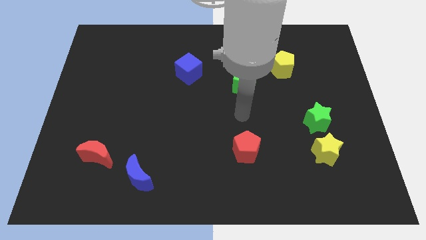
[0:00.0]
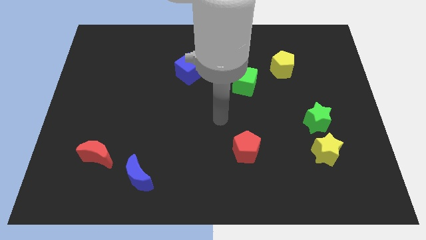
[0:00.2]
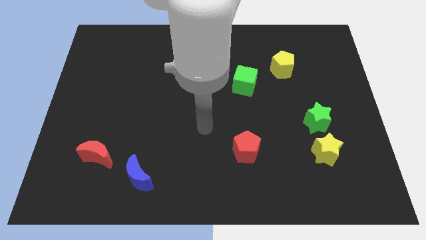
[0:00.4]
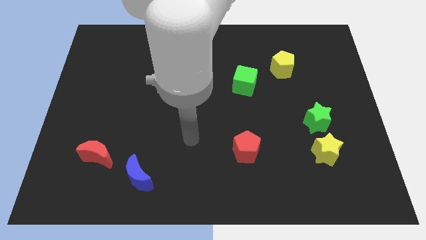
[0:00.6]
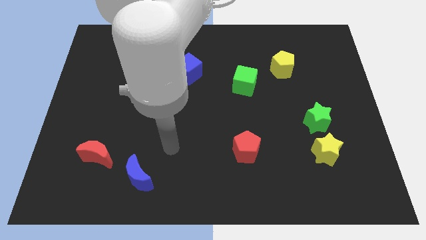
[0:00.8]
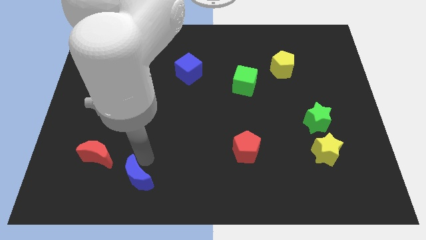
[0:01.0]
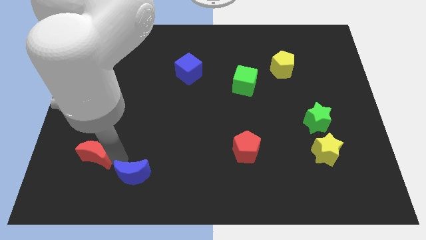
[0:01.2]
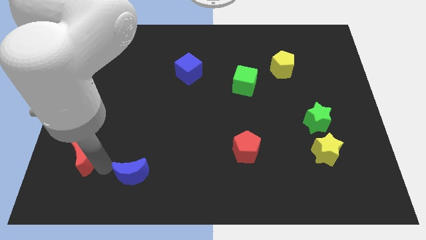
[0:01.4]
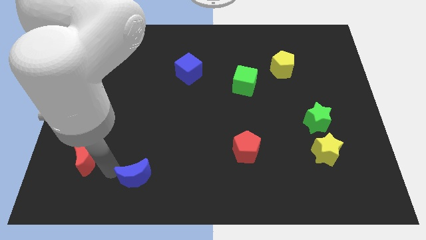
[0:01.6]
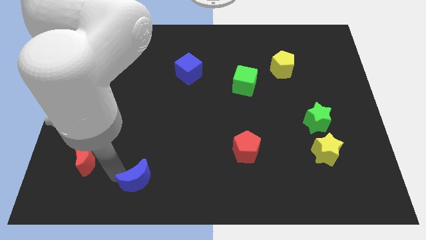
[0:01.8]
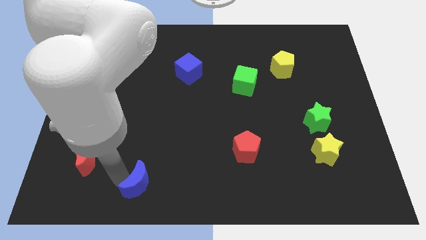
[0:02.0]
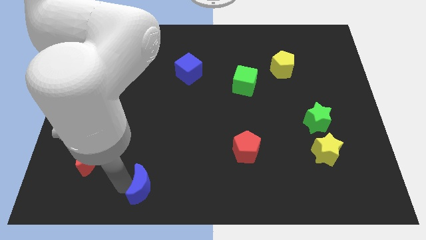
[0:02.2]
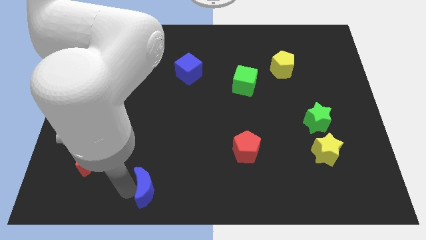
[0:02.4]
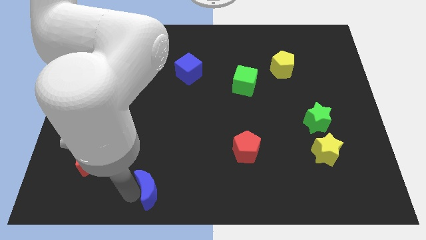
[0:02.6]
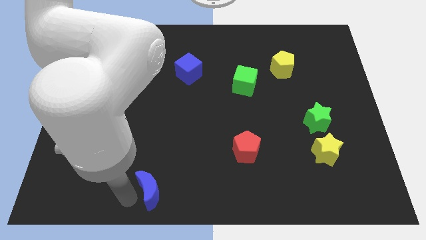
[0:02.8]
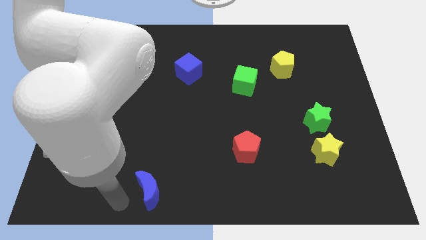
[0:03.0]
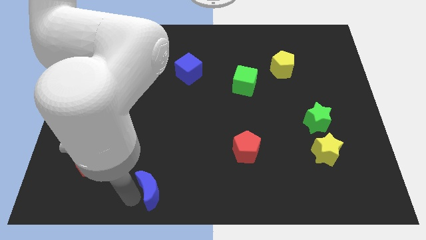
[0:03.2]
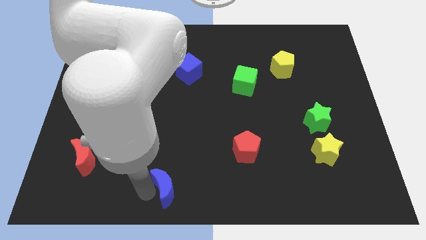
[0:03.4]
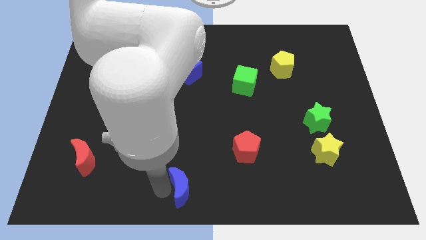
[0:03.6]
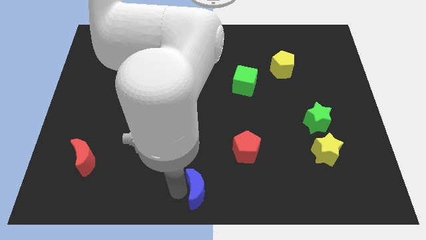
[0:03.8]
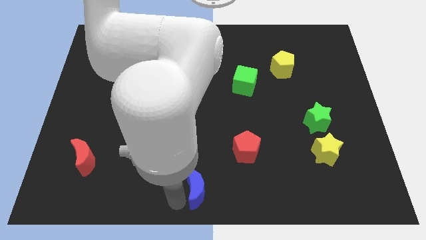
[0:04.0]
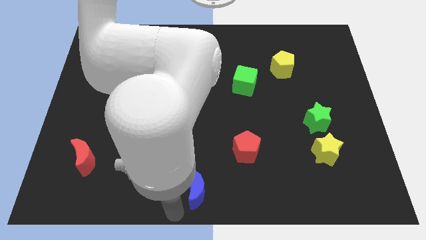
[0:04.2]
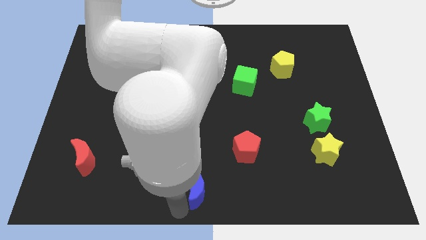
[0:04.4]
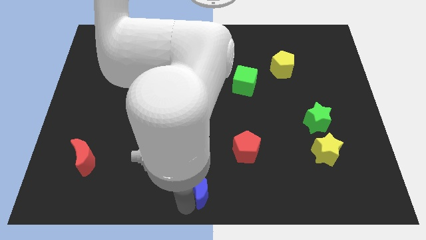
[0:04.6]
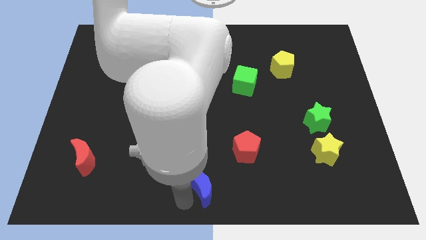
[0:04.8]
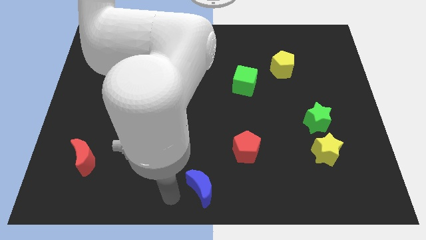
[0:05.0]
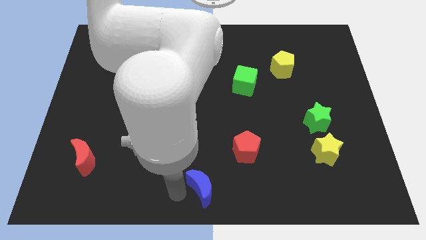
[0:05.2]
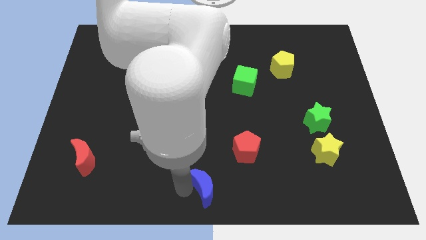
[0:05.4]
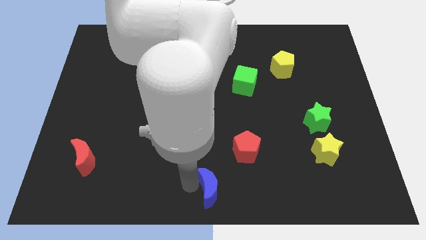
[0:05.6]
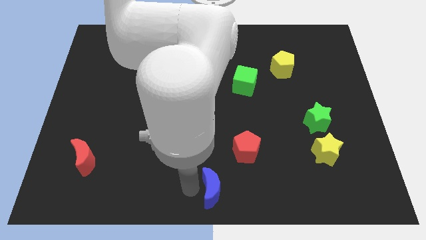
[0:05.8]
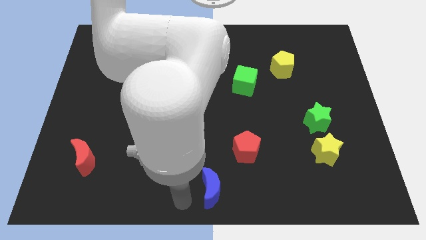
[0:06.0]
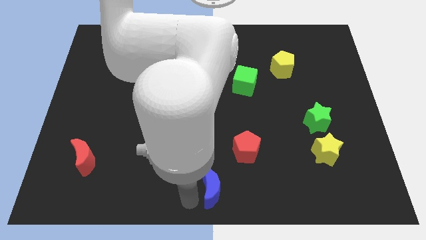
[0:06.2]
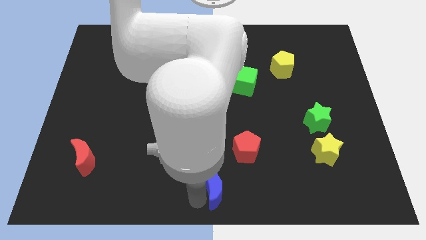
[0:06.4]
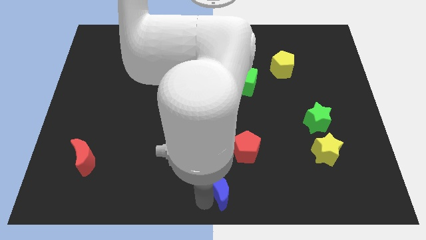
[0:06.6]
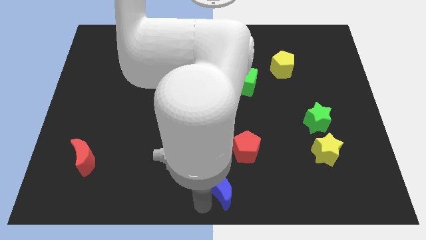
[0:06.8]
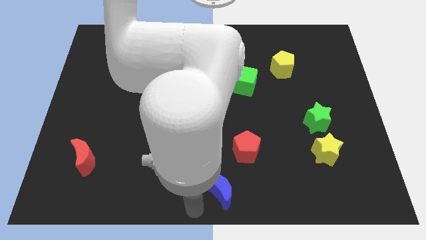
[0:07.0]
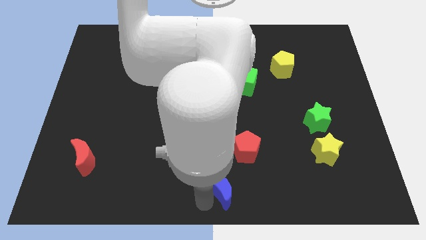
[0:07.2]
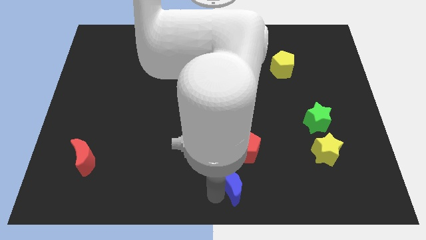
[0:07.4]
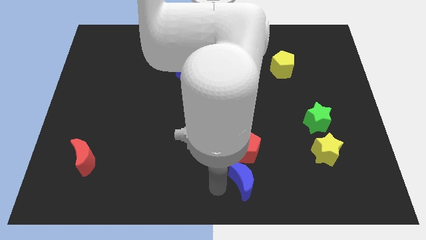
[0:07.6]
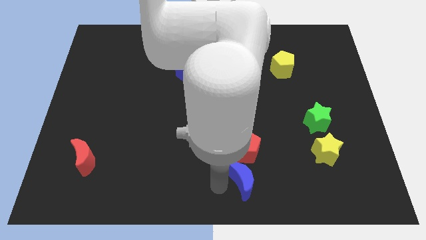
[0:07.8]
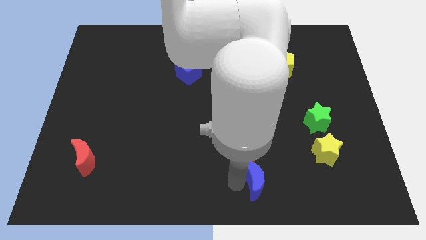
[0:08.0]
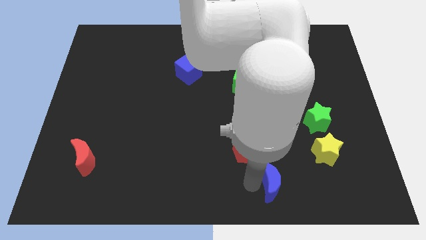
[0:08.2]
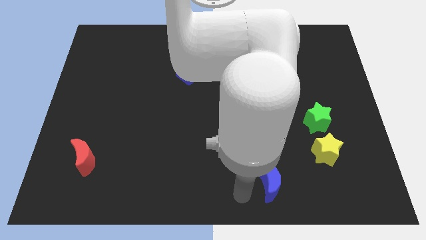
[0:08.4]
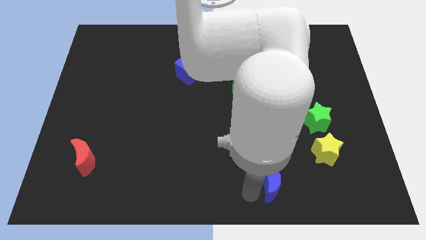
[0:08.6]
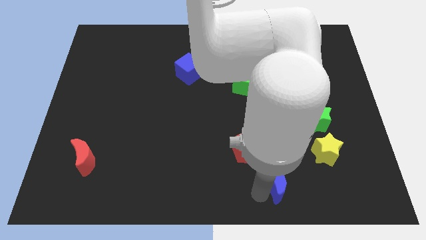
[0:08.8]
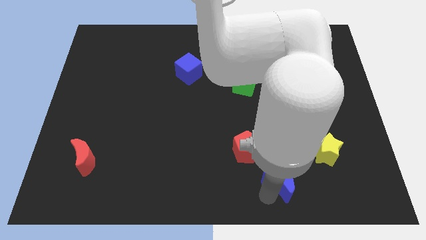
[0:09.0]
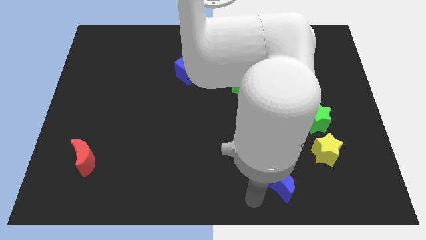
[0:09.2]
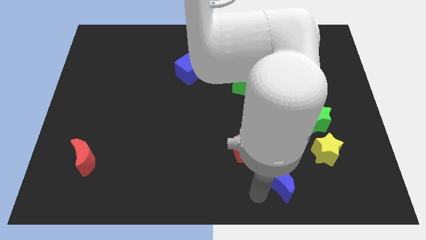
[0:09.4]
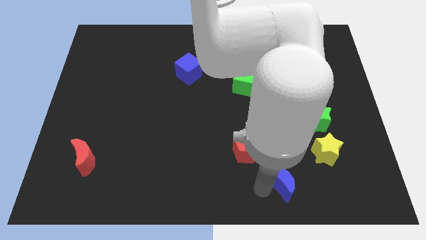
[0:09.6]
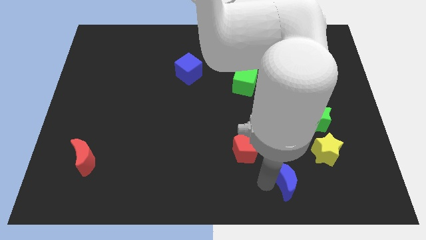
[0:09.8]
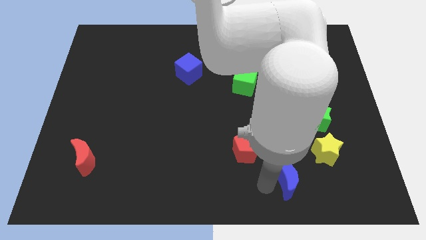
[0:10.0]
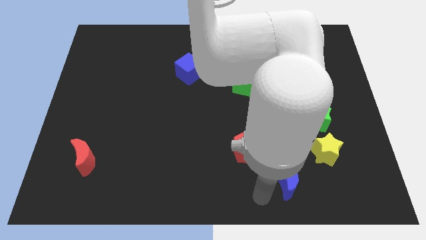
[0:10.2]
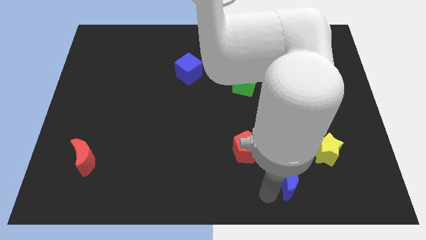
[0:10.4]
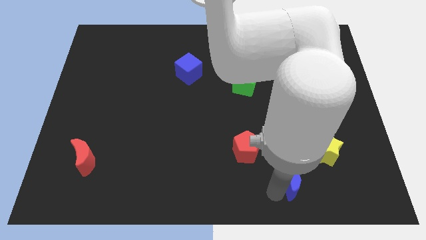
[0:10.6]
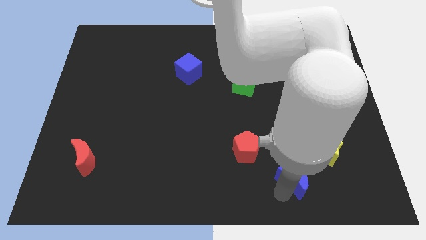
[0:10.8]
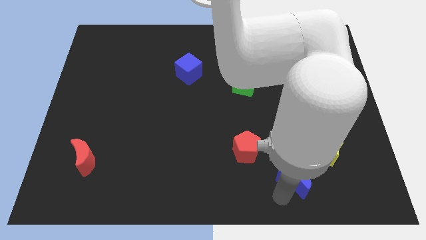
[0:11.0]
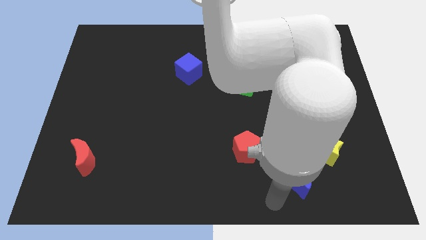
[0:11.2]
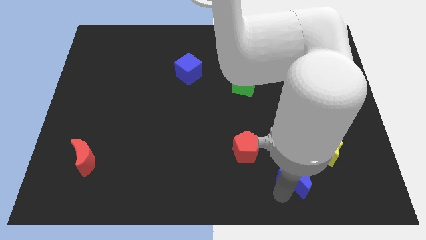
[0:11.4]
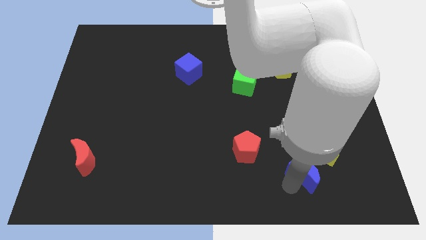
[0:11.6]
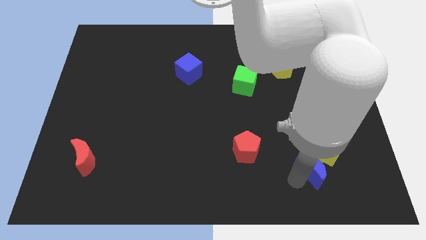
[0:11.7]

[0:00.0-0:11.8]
put the blue moon to the bottom of the green star
